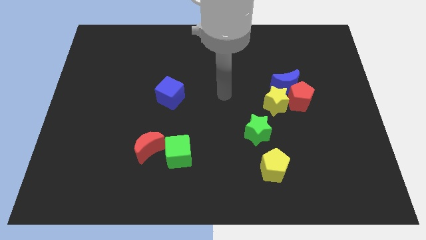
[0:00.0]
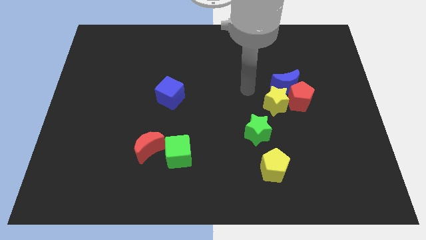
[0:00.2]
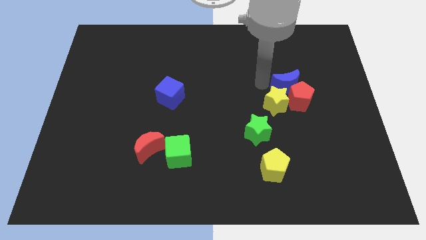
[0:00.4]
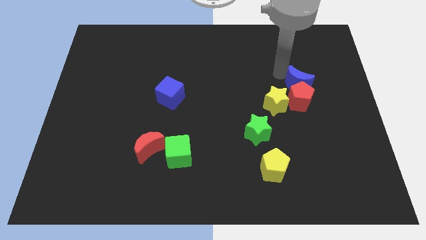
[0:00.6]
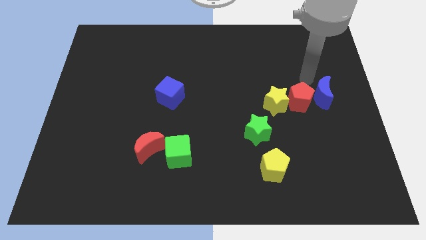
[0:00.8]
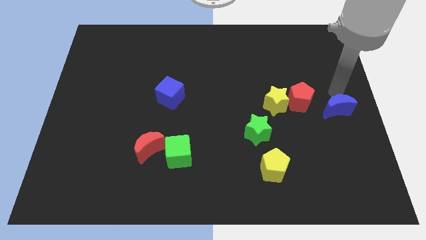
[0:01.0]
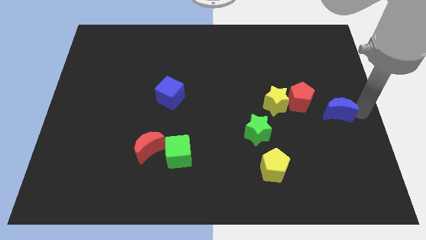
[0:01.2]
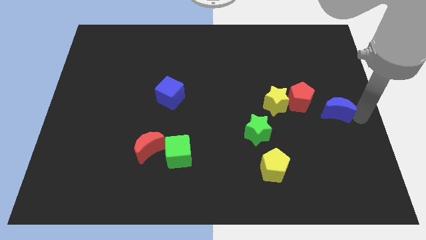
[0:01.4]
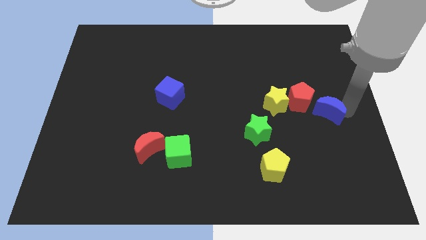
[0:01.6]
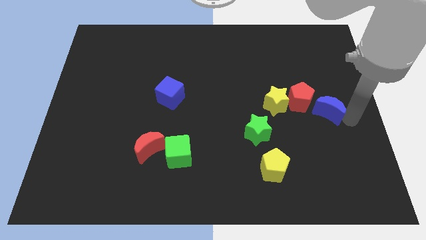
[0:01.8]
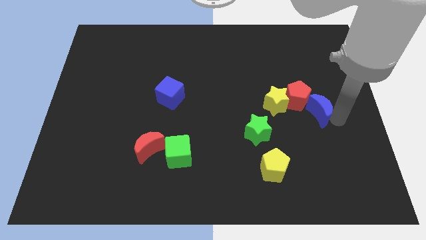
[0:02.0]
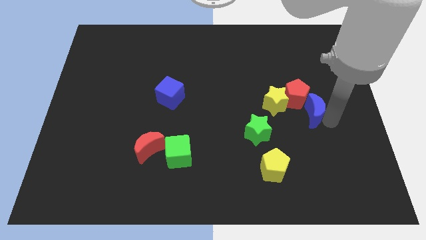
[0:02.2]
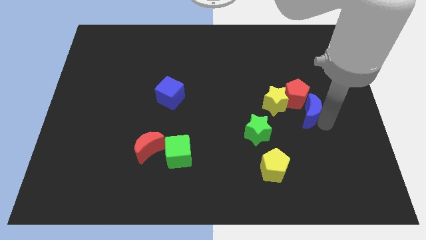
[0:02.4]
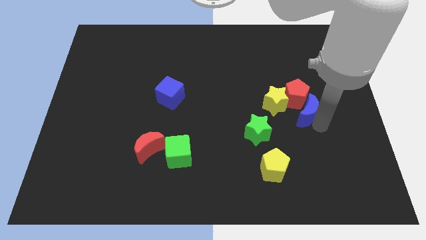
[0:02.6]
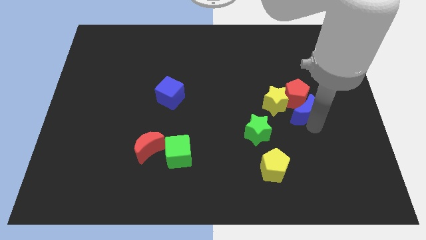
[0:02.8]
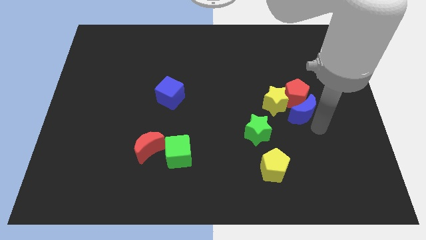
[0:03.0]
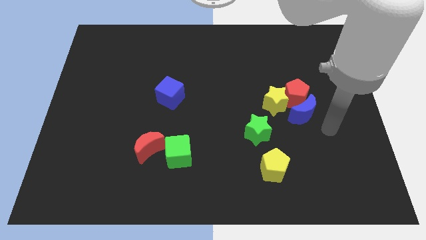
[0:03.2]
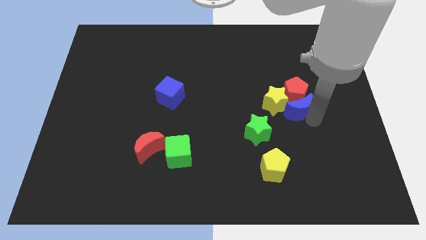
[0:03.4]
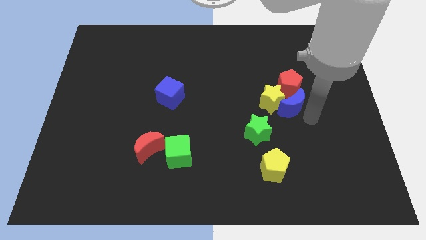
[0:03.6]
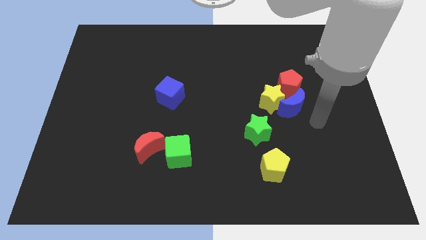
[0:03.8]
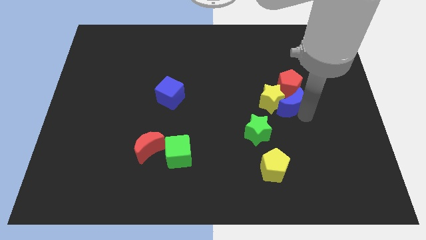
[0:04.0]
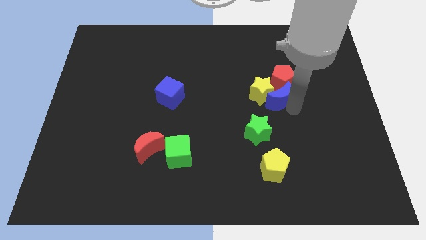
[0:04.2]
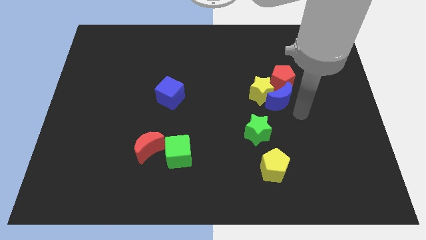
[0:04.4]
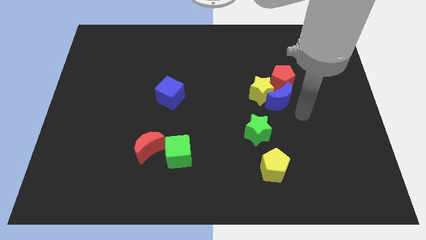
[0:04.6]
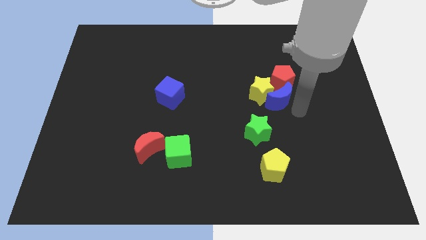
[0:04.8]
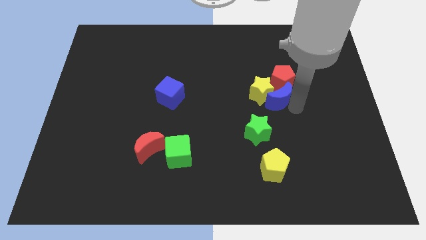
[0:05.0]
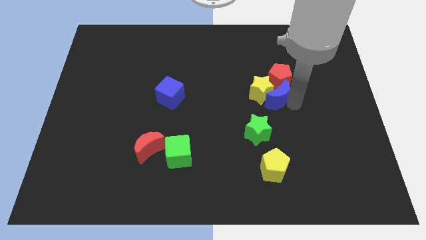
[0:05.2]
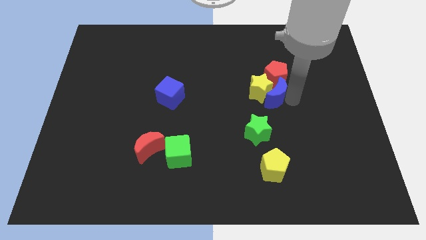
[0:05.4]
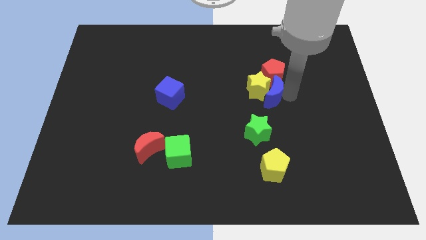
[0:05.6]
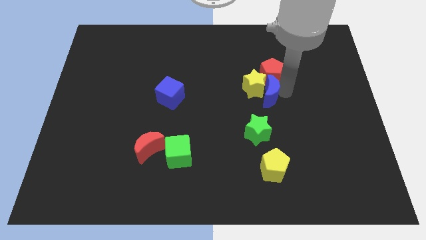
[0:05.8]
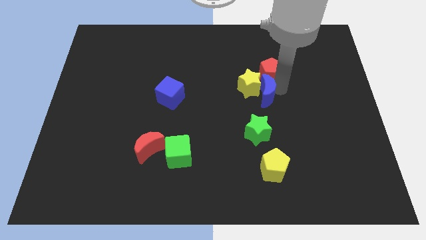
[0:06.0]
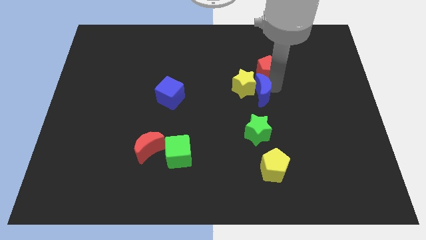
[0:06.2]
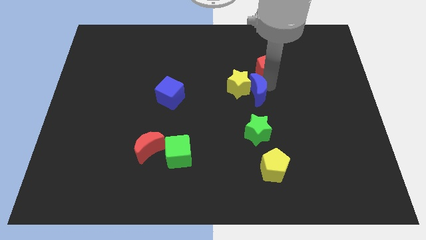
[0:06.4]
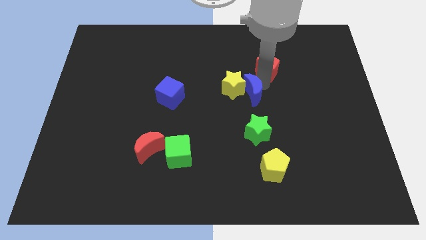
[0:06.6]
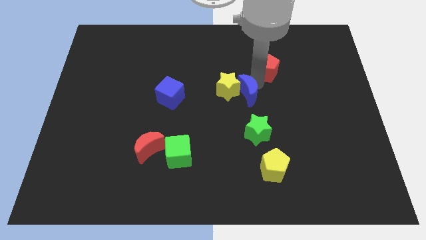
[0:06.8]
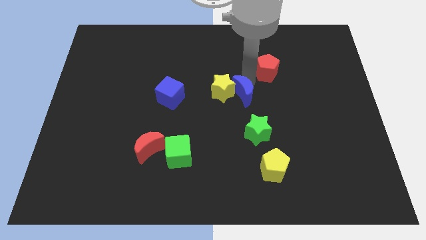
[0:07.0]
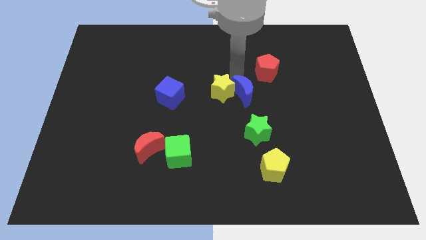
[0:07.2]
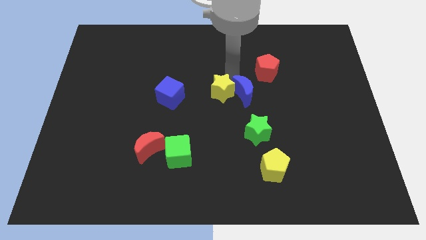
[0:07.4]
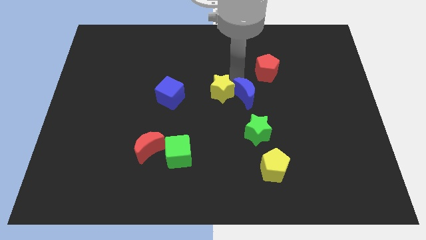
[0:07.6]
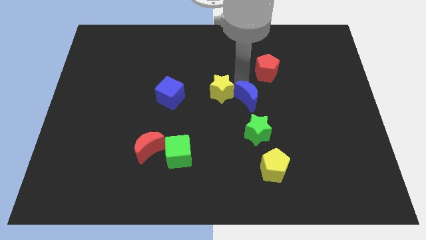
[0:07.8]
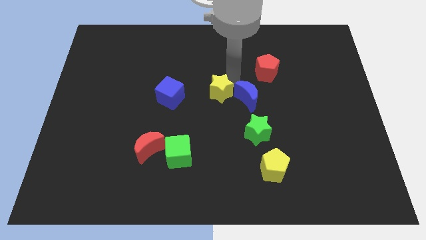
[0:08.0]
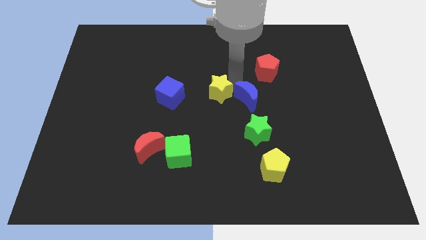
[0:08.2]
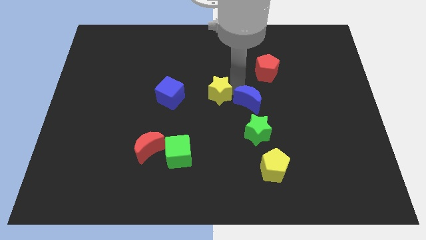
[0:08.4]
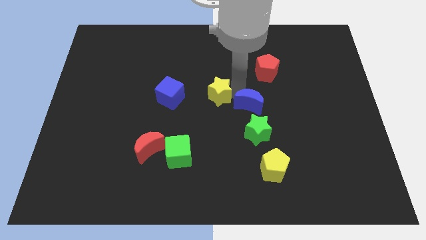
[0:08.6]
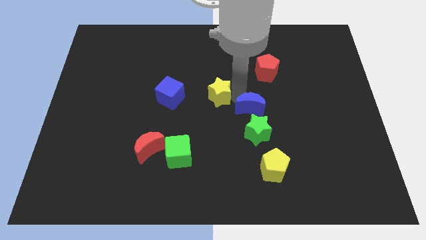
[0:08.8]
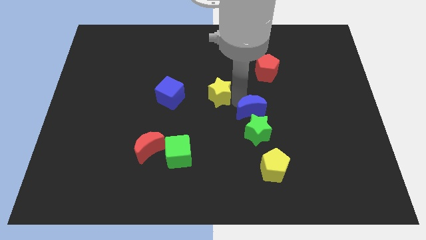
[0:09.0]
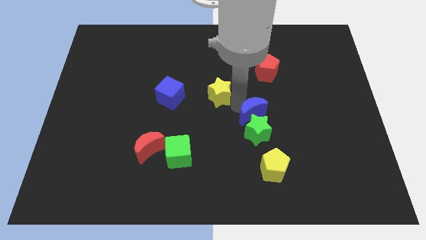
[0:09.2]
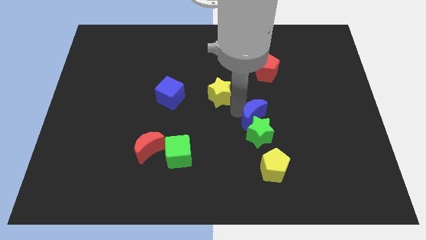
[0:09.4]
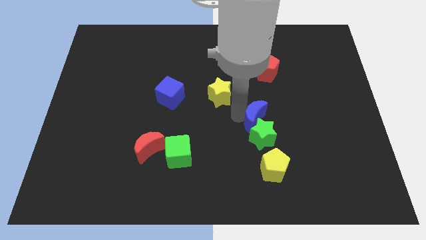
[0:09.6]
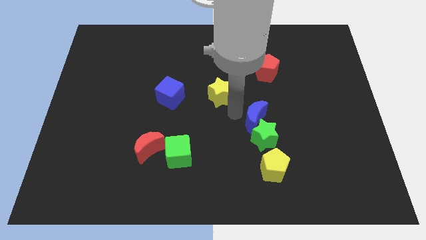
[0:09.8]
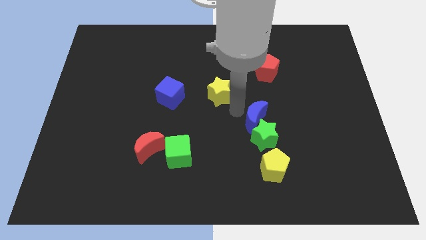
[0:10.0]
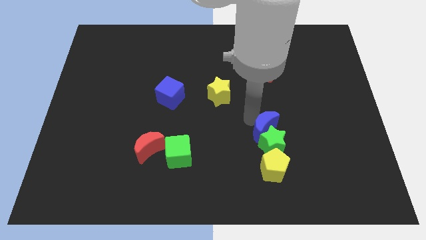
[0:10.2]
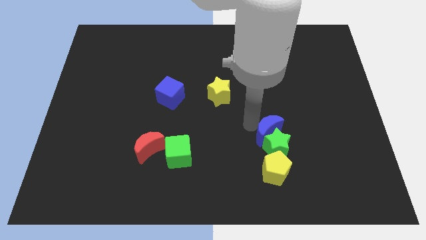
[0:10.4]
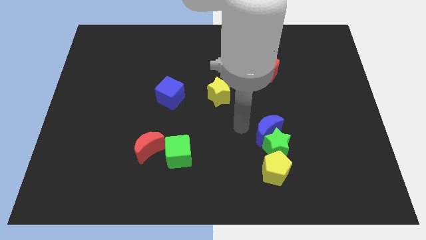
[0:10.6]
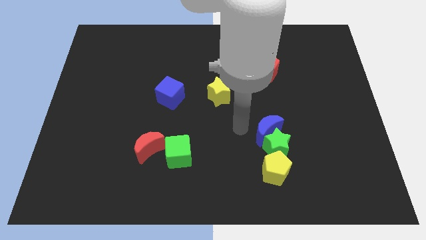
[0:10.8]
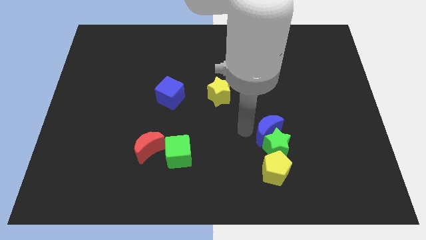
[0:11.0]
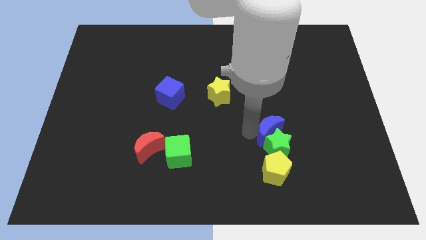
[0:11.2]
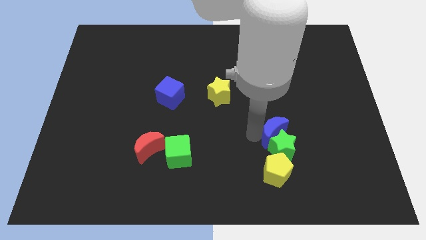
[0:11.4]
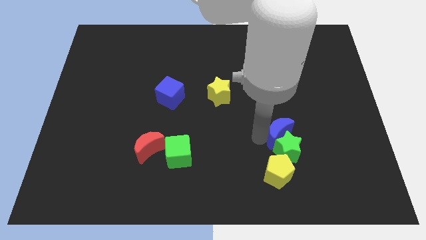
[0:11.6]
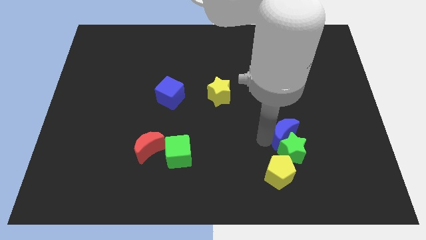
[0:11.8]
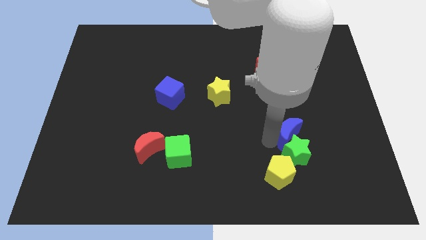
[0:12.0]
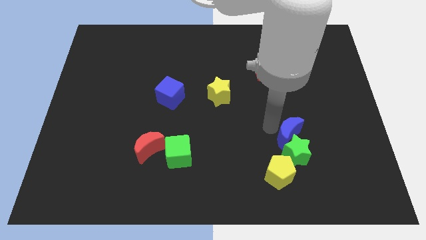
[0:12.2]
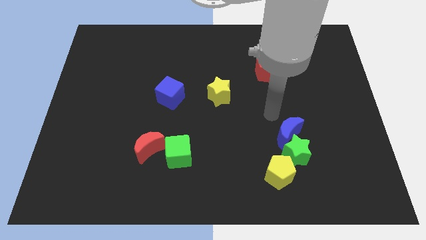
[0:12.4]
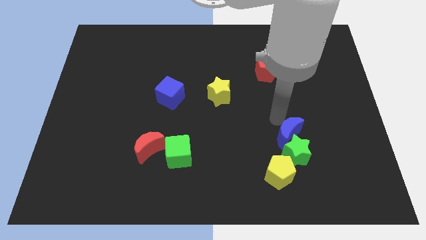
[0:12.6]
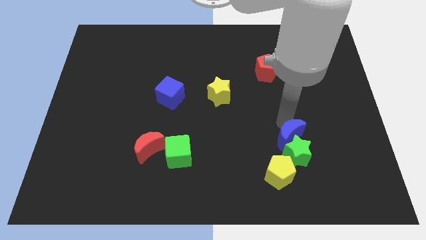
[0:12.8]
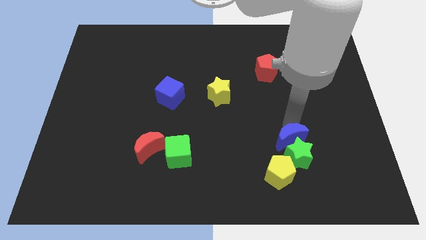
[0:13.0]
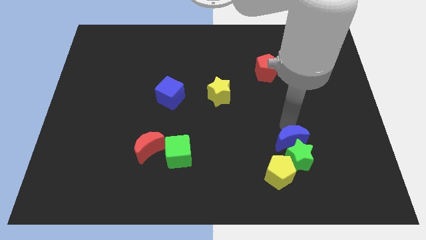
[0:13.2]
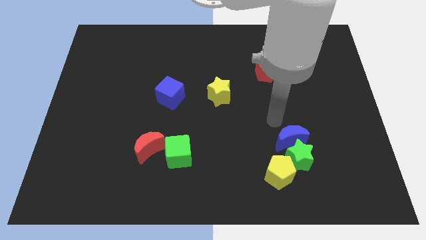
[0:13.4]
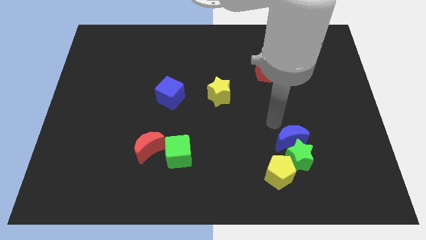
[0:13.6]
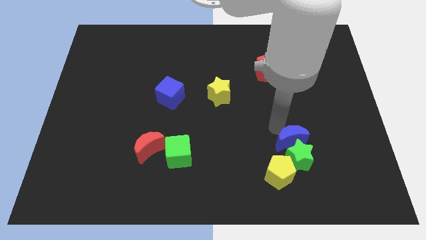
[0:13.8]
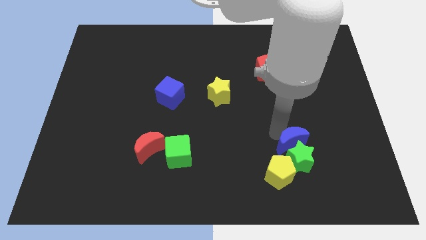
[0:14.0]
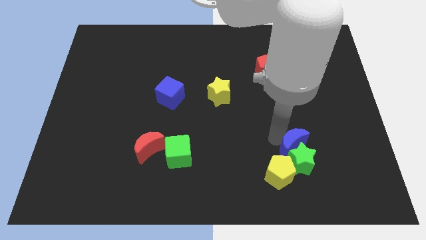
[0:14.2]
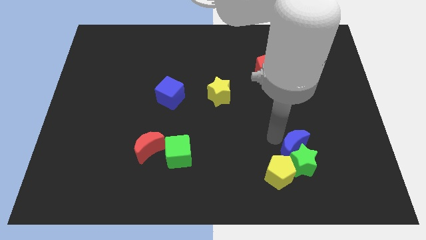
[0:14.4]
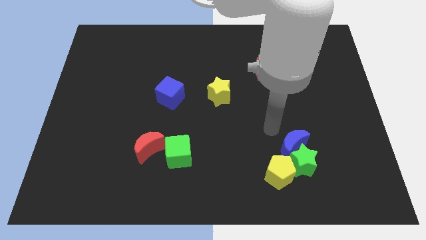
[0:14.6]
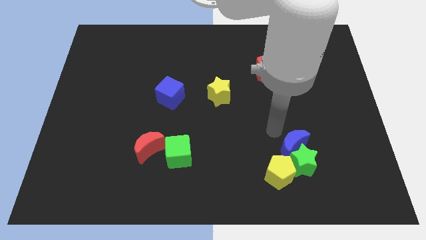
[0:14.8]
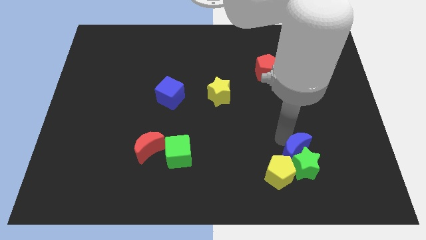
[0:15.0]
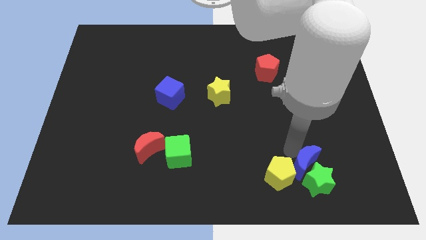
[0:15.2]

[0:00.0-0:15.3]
move the blue moon to the right side of the yellow pentagon
